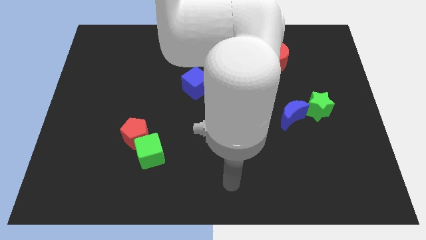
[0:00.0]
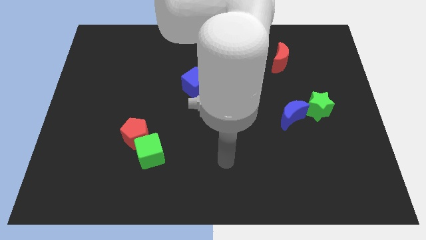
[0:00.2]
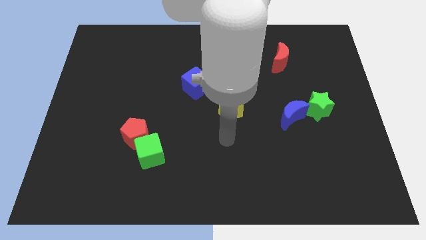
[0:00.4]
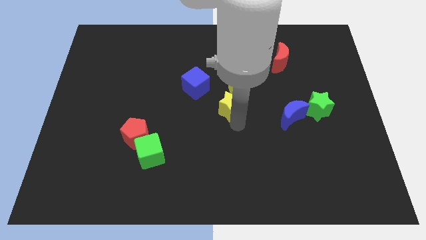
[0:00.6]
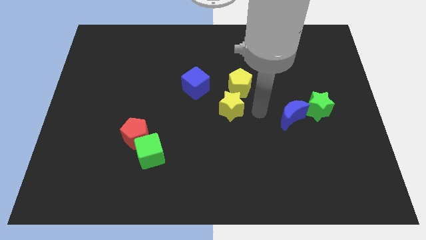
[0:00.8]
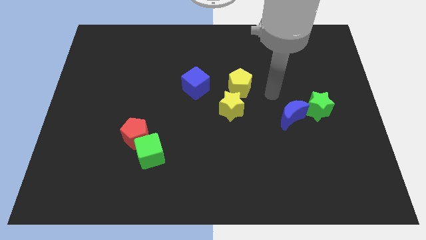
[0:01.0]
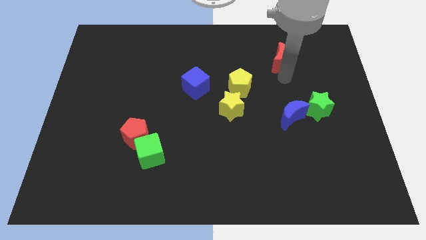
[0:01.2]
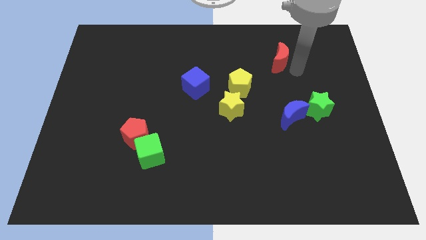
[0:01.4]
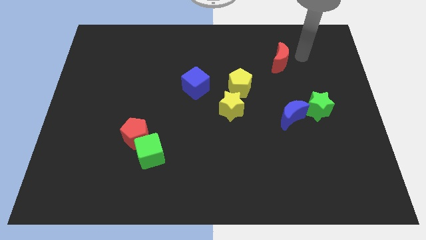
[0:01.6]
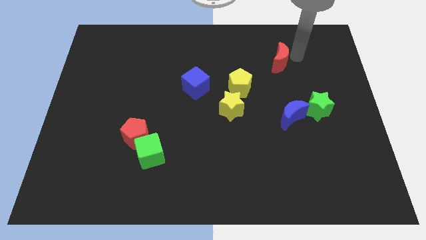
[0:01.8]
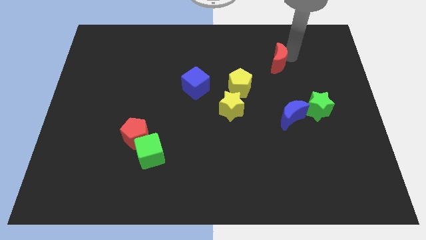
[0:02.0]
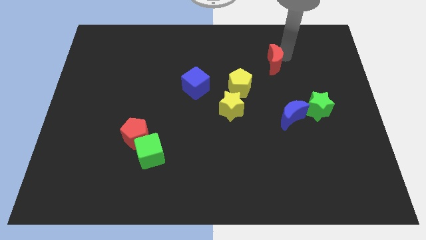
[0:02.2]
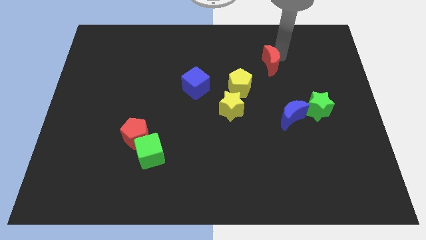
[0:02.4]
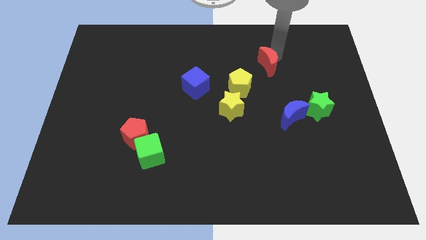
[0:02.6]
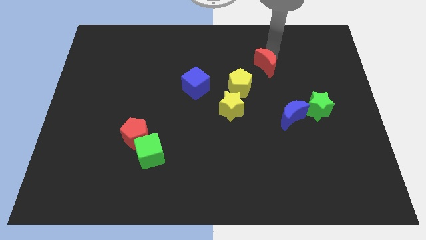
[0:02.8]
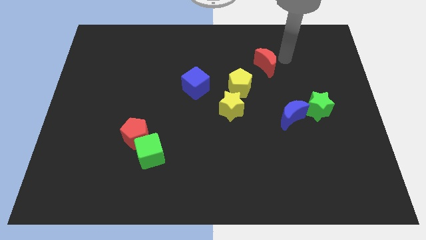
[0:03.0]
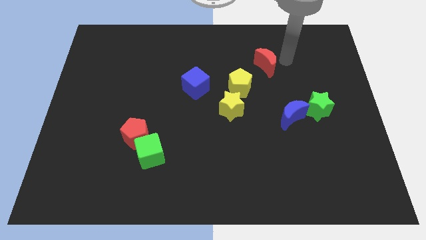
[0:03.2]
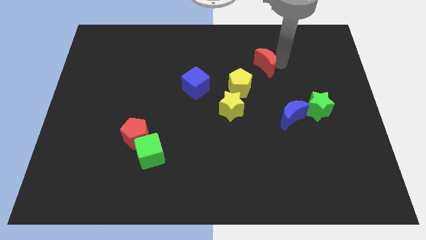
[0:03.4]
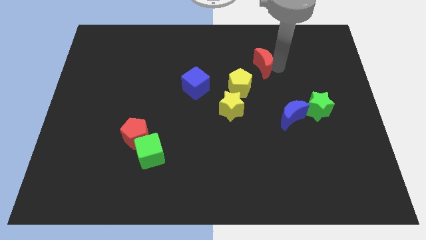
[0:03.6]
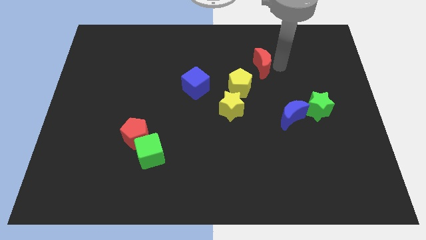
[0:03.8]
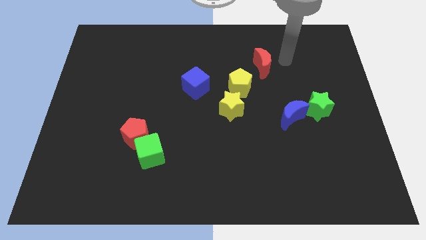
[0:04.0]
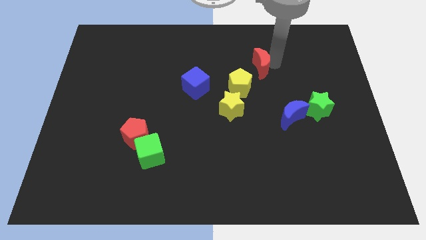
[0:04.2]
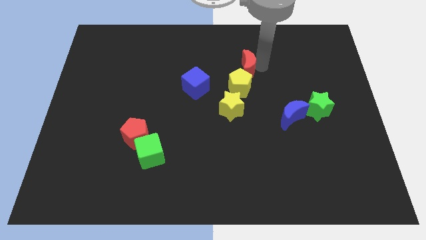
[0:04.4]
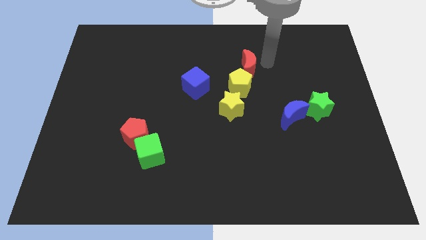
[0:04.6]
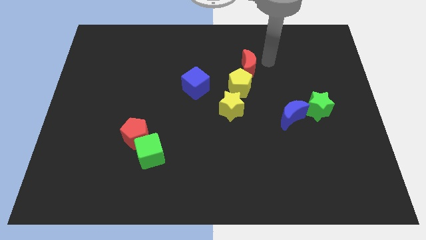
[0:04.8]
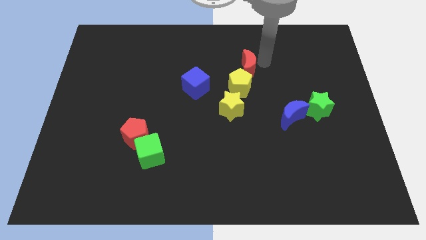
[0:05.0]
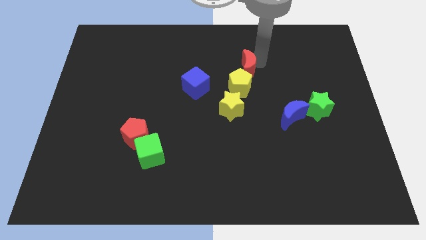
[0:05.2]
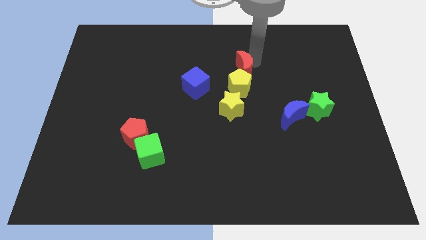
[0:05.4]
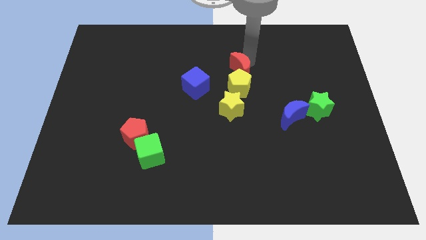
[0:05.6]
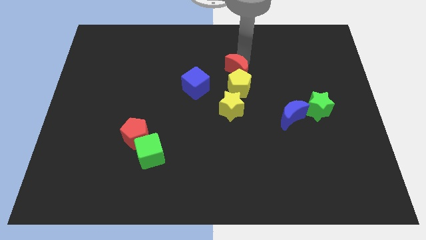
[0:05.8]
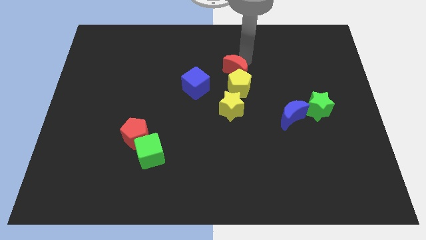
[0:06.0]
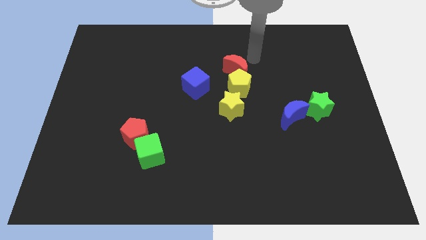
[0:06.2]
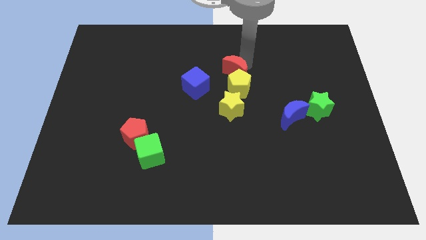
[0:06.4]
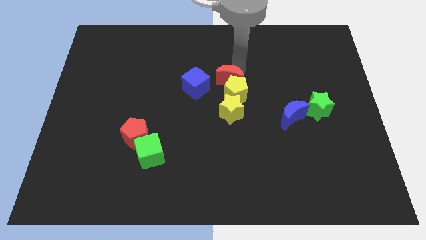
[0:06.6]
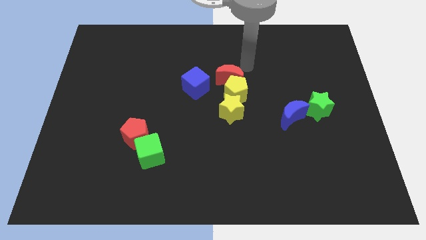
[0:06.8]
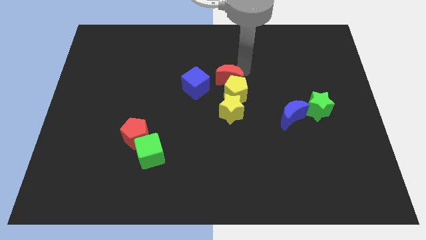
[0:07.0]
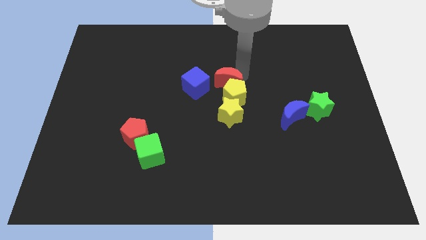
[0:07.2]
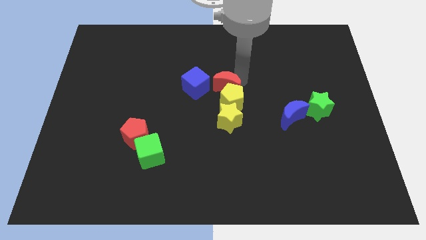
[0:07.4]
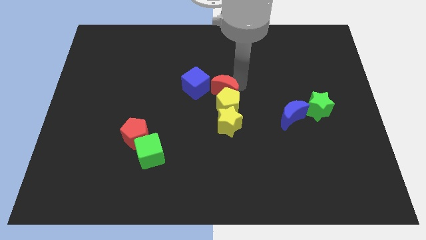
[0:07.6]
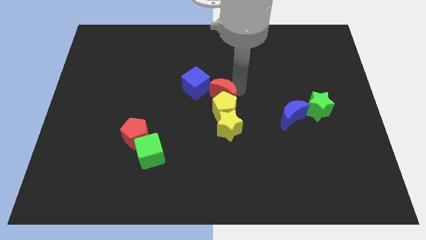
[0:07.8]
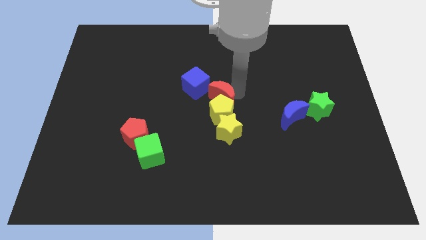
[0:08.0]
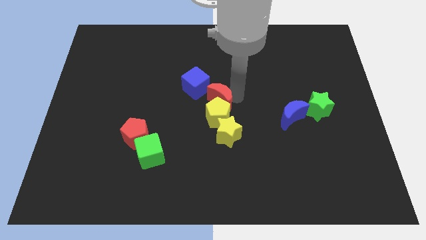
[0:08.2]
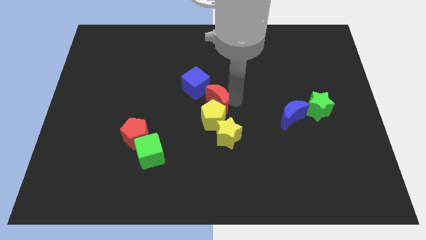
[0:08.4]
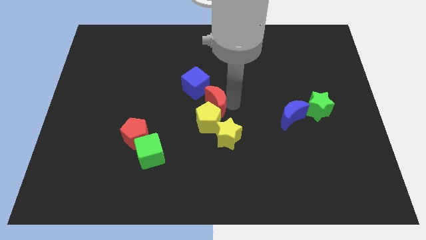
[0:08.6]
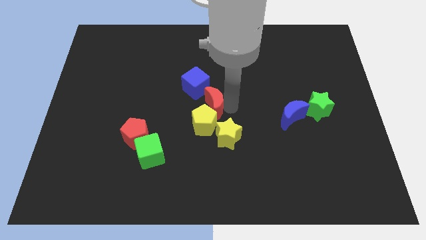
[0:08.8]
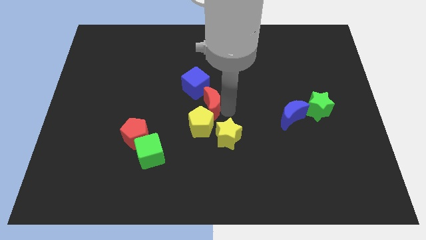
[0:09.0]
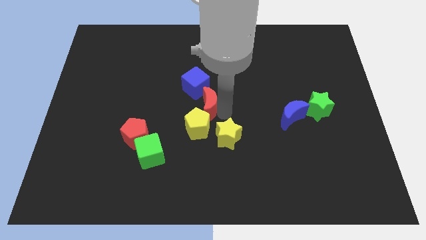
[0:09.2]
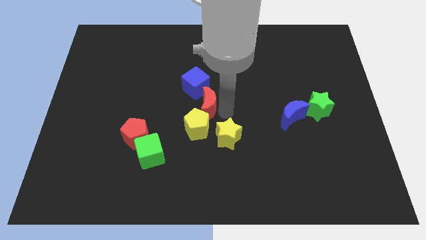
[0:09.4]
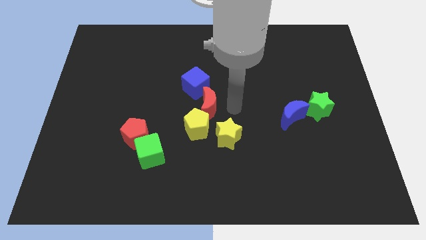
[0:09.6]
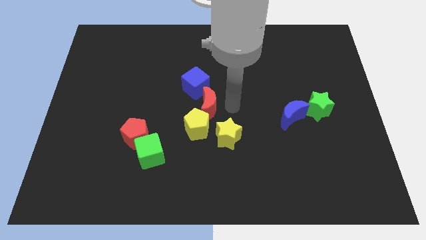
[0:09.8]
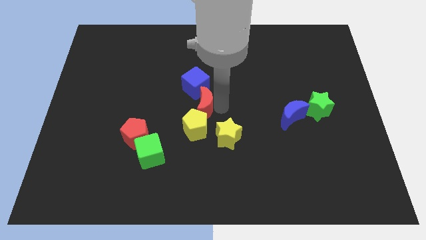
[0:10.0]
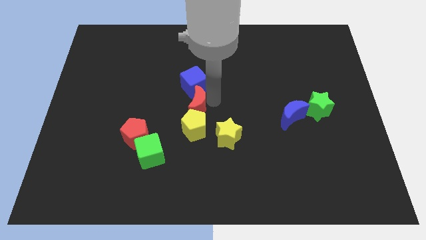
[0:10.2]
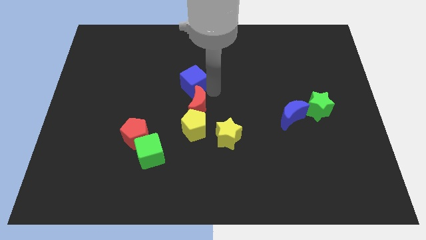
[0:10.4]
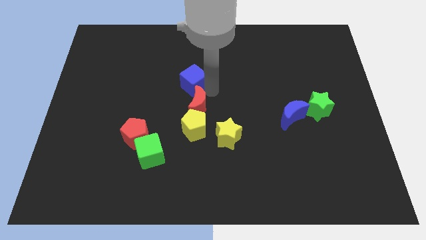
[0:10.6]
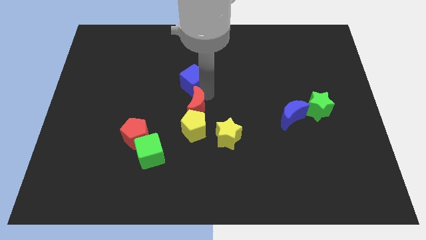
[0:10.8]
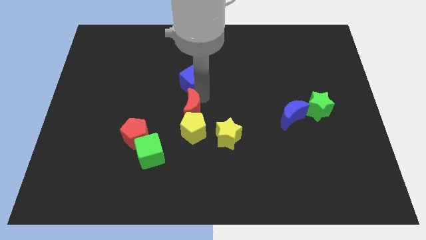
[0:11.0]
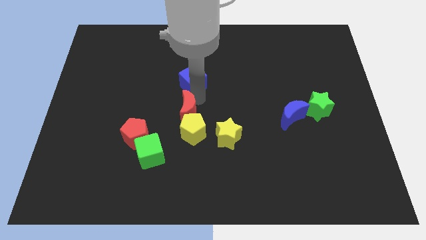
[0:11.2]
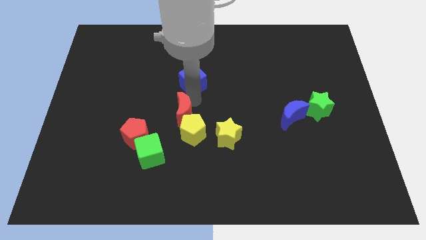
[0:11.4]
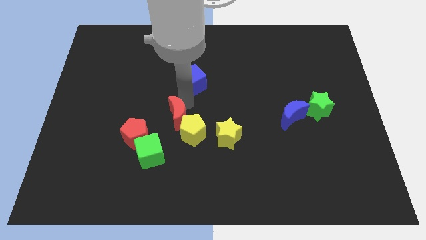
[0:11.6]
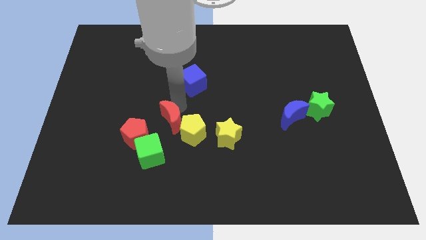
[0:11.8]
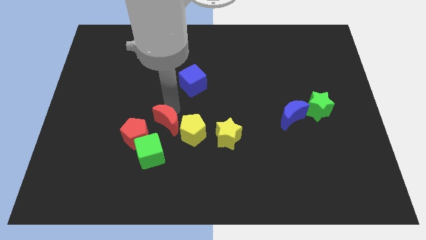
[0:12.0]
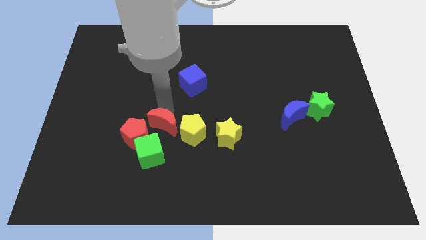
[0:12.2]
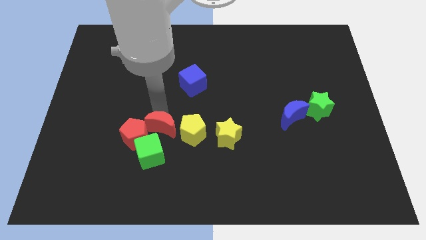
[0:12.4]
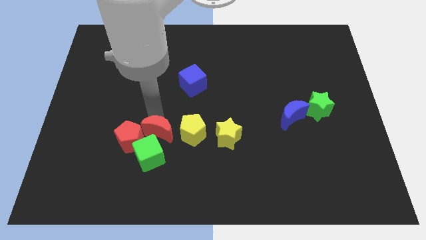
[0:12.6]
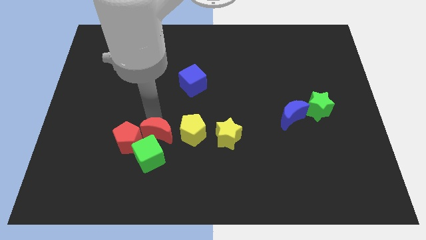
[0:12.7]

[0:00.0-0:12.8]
put the red moon to the green cube

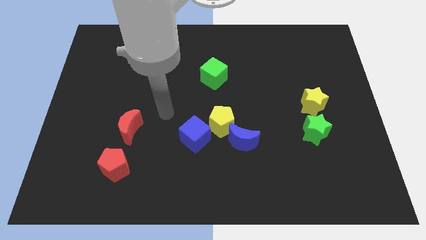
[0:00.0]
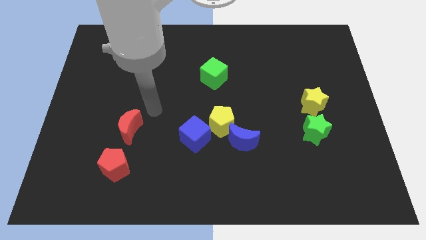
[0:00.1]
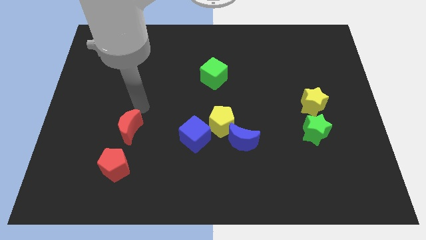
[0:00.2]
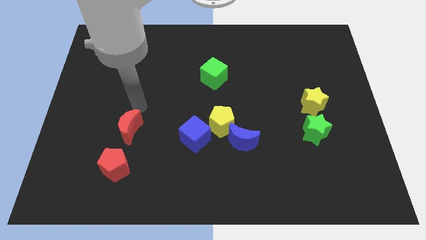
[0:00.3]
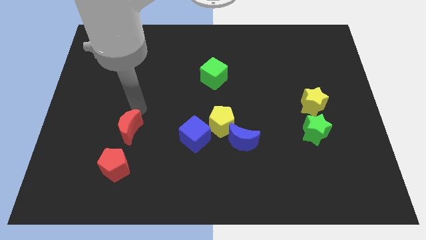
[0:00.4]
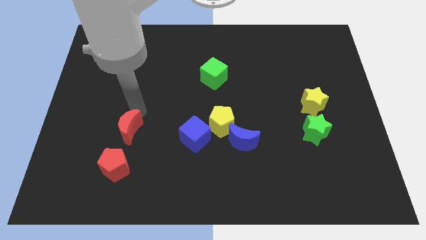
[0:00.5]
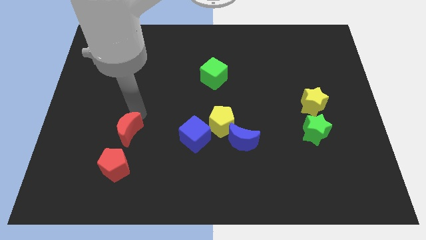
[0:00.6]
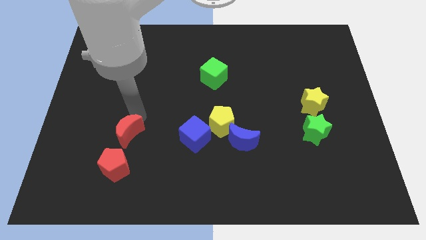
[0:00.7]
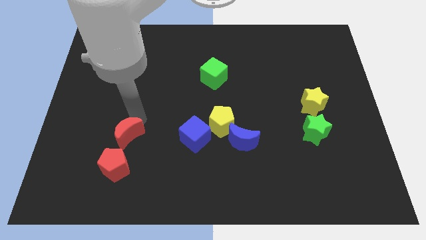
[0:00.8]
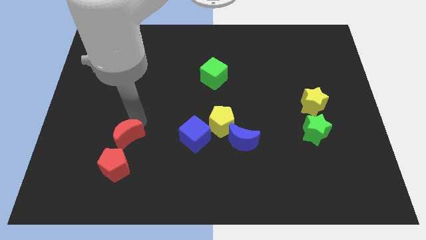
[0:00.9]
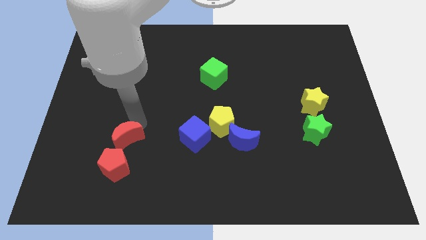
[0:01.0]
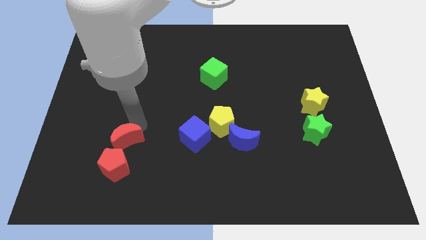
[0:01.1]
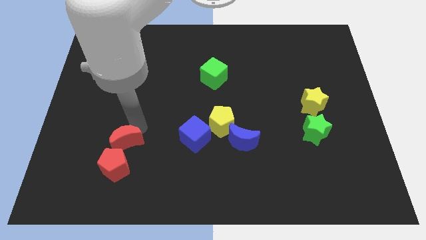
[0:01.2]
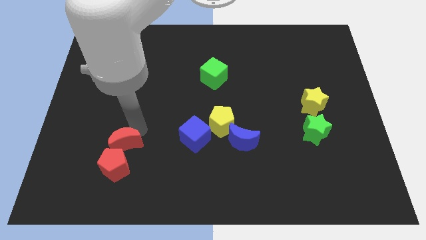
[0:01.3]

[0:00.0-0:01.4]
put the red moon close to the red pentagon
